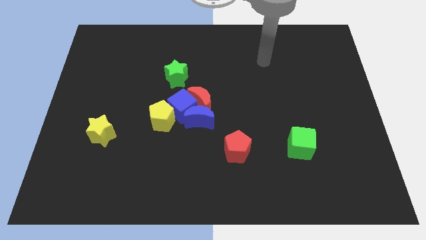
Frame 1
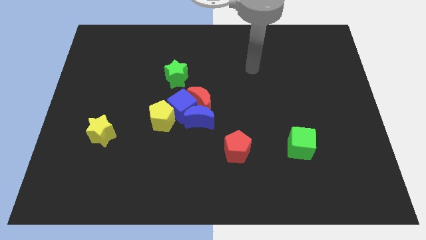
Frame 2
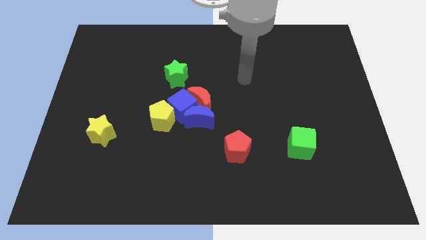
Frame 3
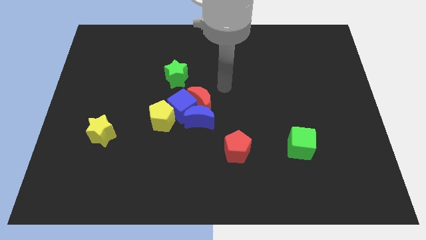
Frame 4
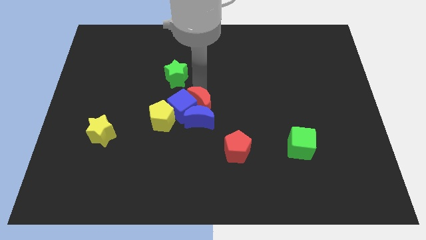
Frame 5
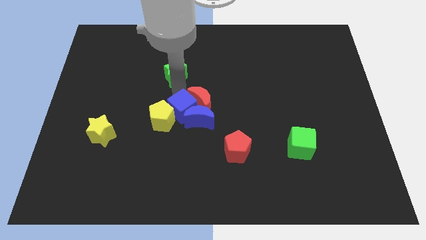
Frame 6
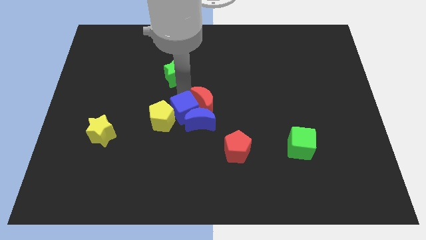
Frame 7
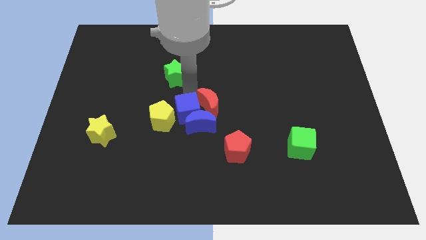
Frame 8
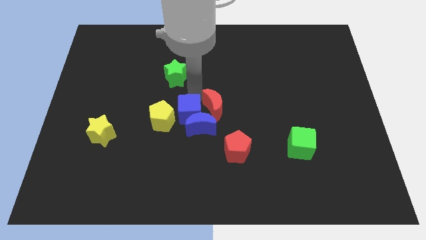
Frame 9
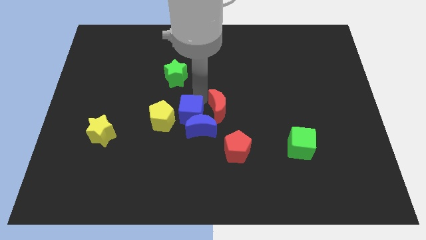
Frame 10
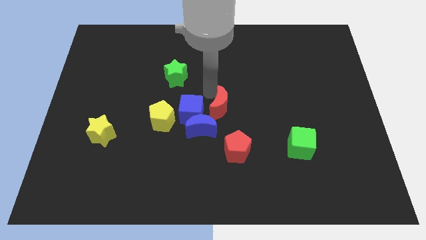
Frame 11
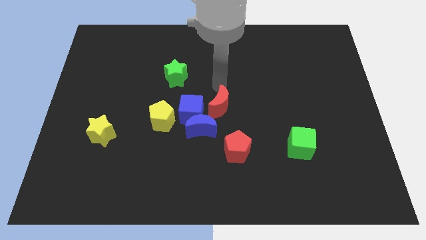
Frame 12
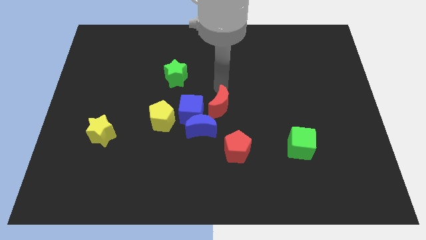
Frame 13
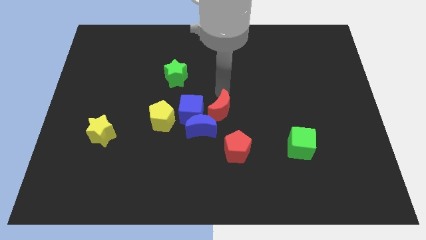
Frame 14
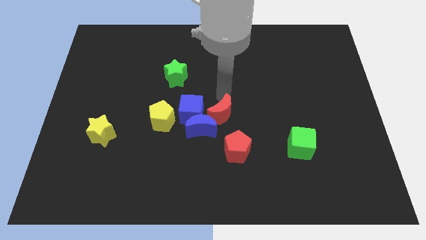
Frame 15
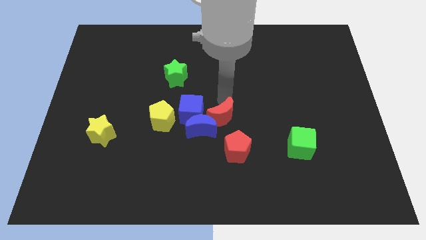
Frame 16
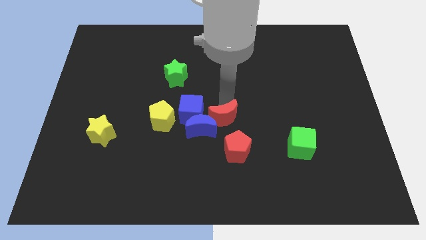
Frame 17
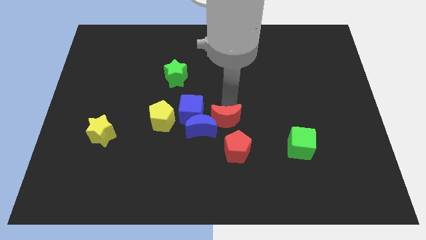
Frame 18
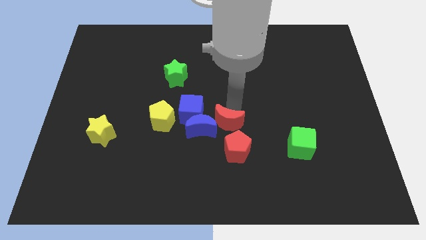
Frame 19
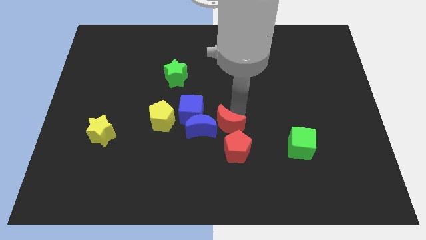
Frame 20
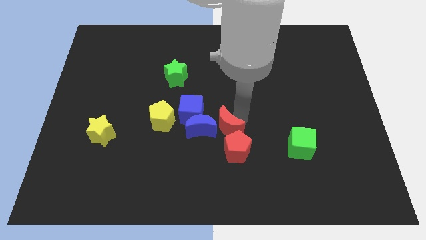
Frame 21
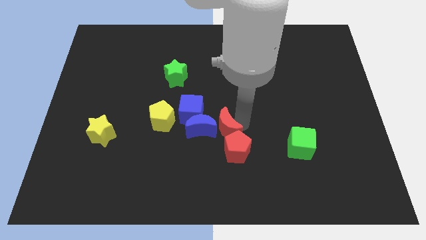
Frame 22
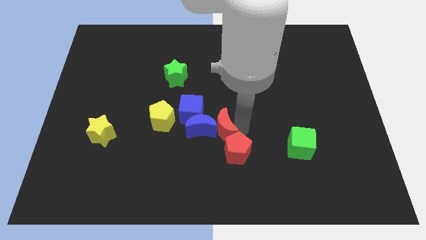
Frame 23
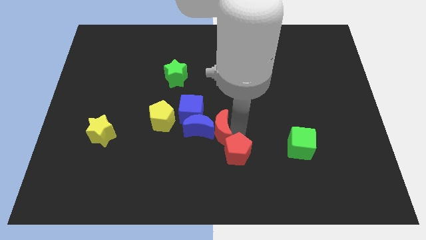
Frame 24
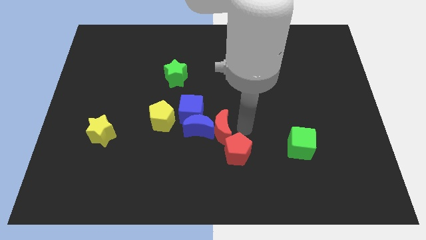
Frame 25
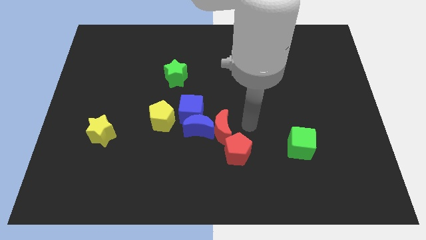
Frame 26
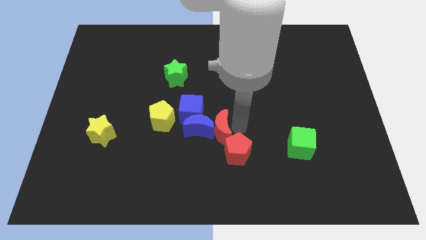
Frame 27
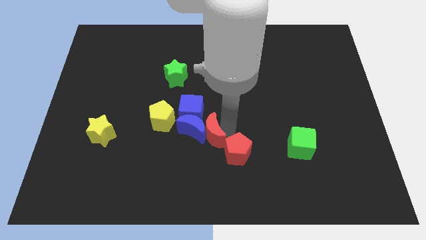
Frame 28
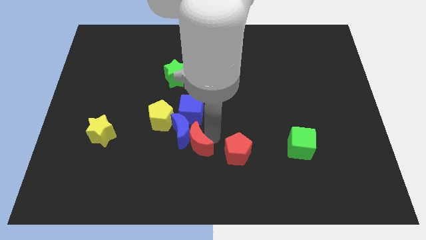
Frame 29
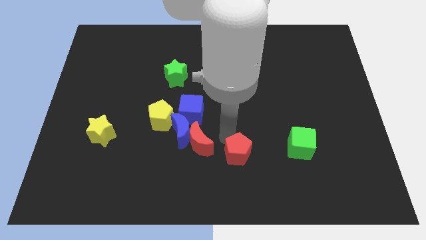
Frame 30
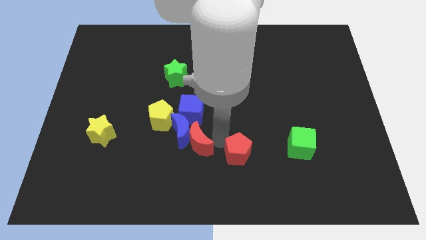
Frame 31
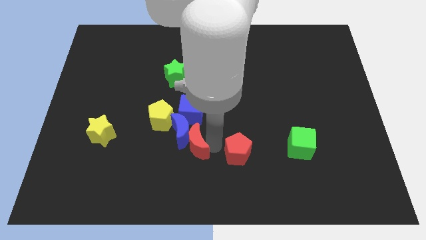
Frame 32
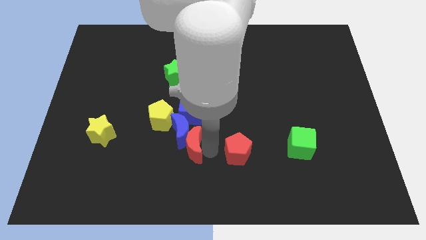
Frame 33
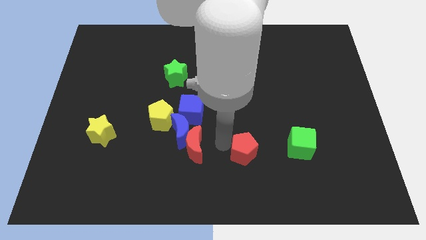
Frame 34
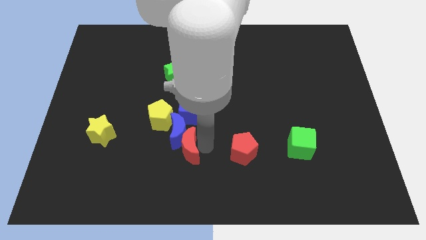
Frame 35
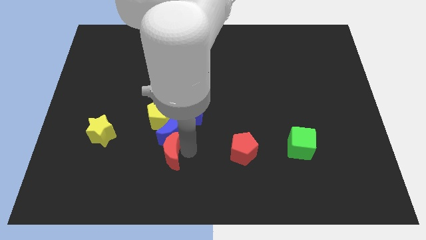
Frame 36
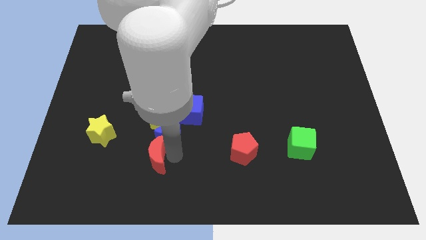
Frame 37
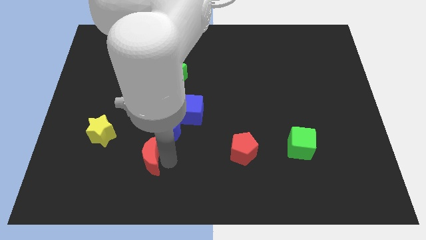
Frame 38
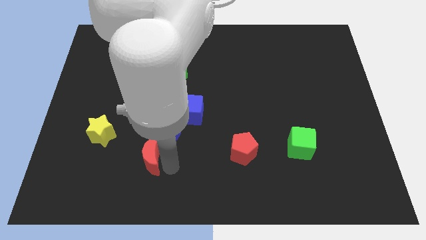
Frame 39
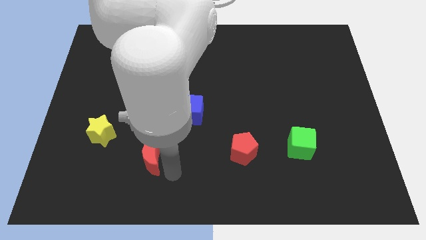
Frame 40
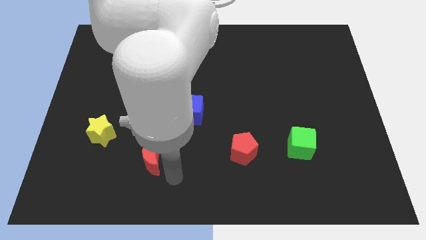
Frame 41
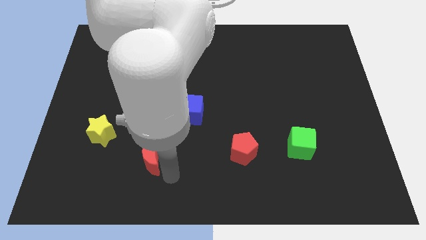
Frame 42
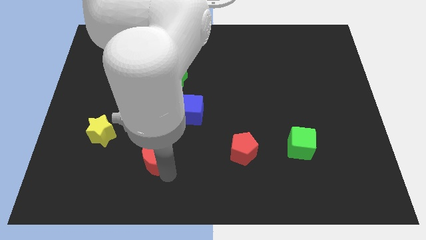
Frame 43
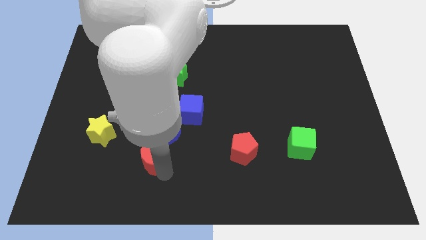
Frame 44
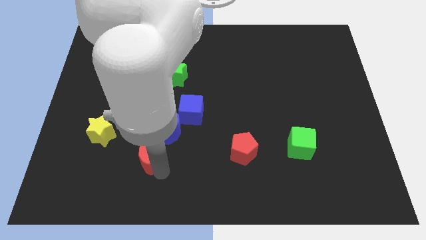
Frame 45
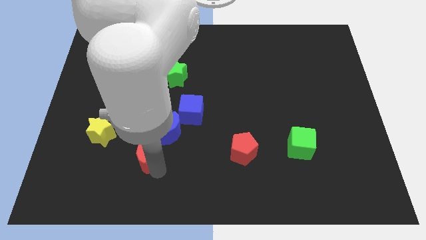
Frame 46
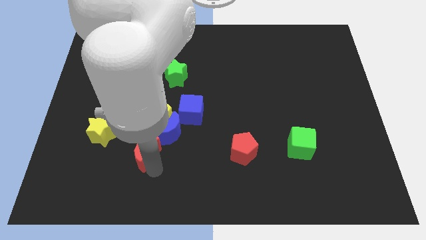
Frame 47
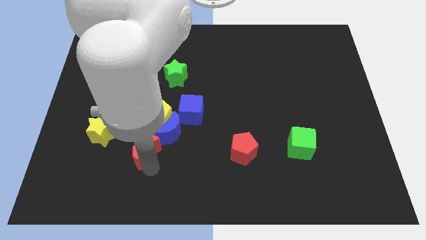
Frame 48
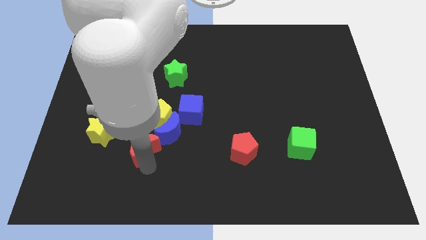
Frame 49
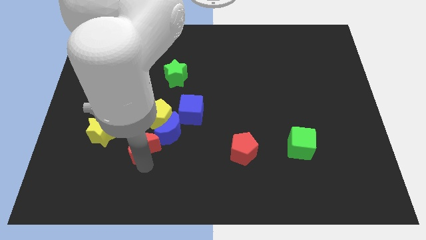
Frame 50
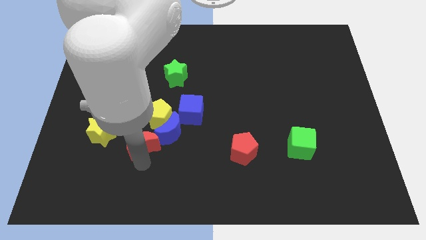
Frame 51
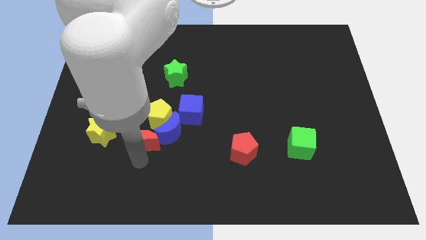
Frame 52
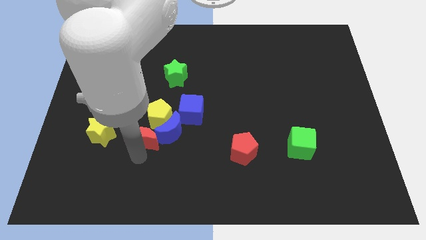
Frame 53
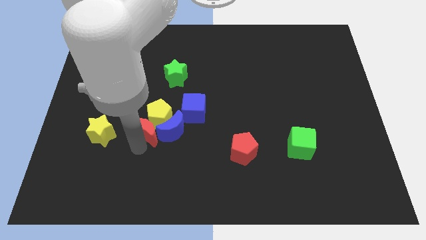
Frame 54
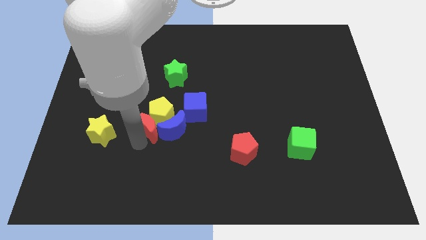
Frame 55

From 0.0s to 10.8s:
push the red moon diagonally down and to the left of the blue moon
